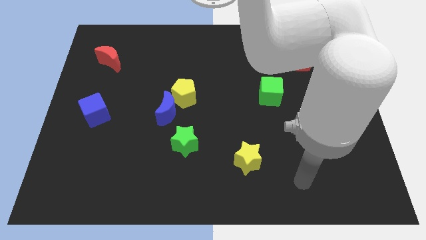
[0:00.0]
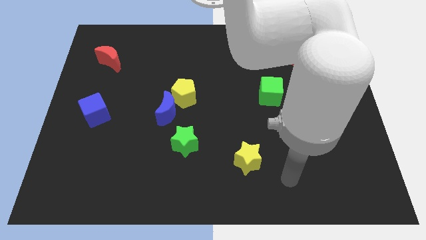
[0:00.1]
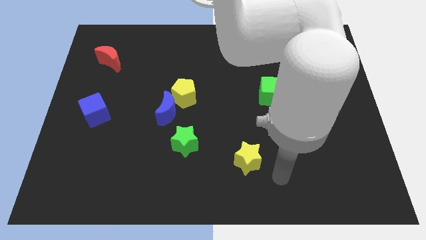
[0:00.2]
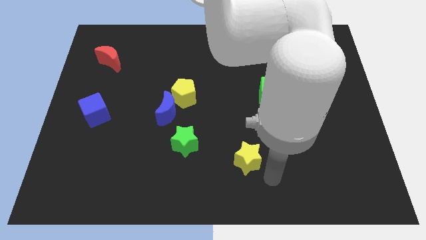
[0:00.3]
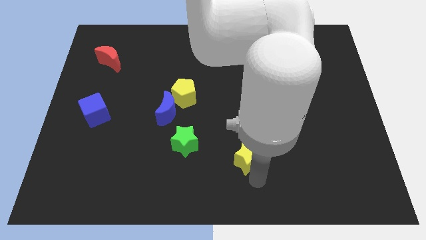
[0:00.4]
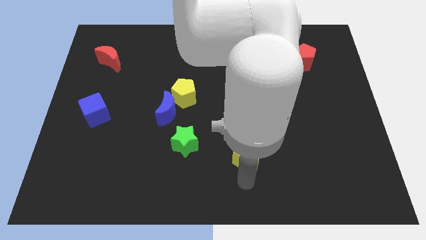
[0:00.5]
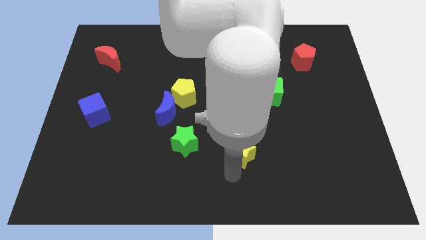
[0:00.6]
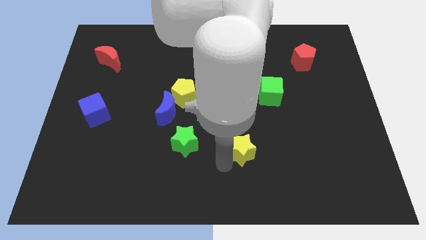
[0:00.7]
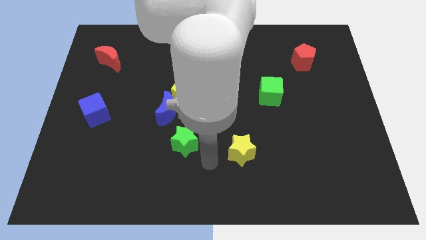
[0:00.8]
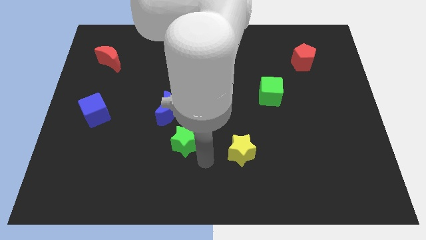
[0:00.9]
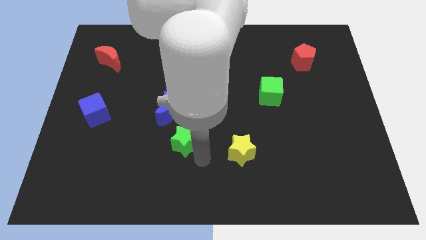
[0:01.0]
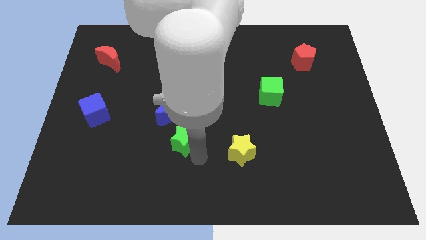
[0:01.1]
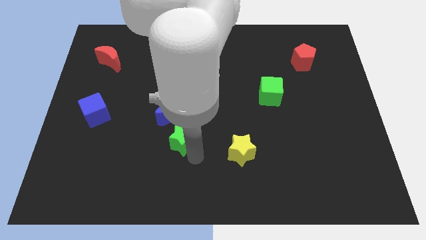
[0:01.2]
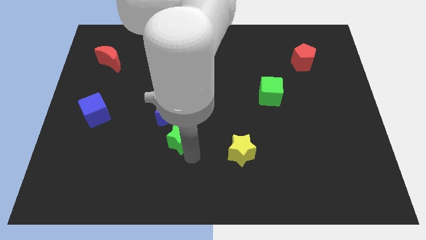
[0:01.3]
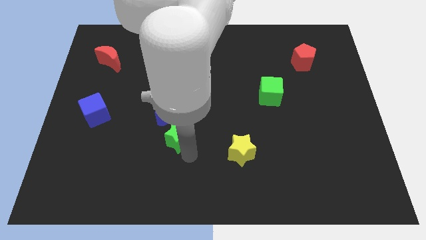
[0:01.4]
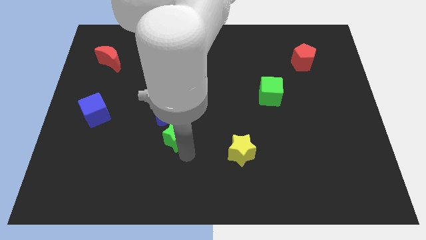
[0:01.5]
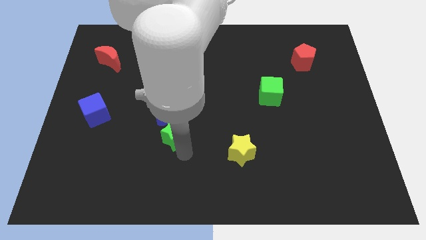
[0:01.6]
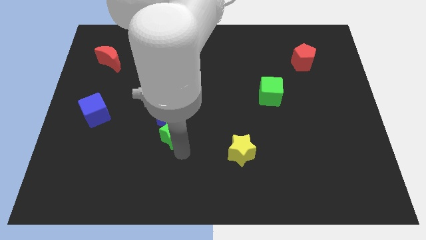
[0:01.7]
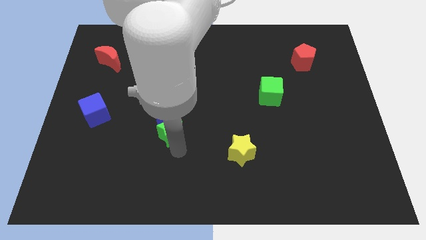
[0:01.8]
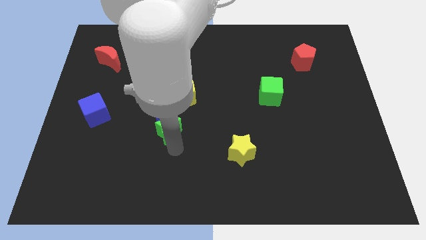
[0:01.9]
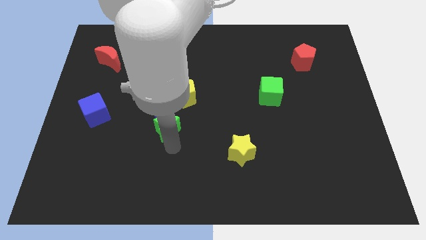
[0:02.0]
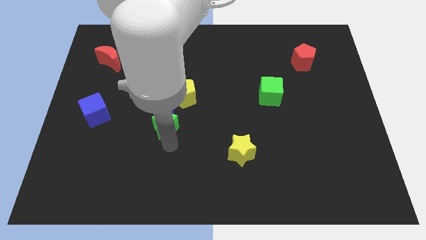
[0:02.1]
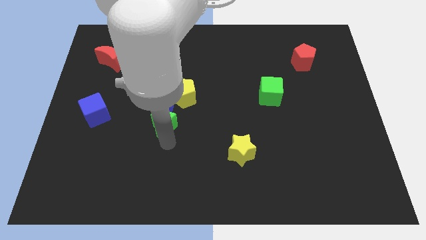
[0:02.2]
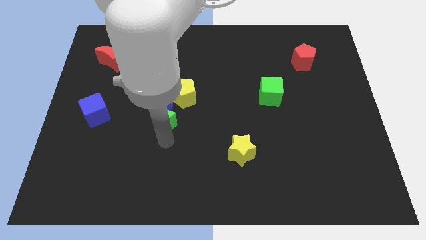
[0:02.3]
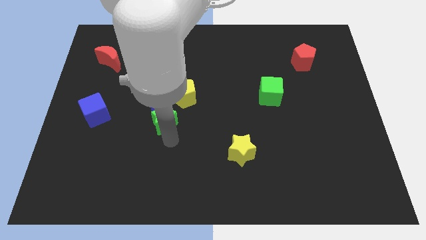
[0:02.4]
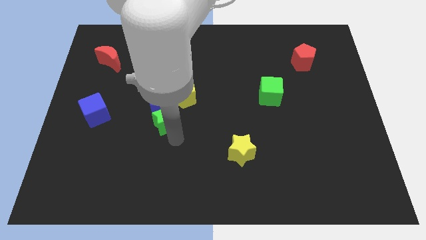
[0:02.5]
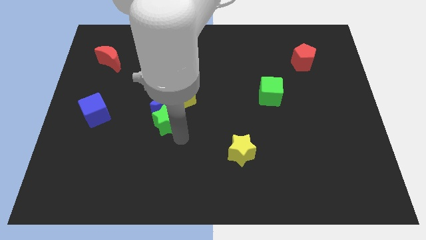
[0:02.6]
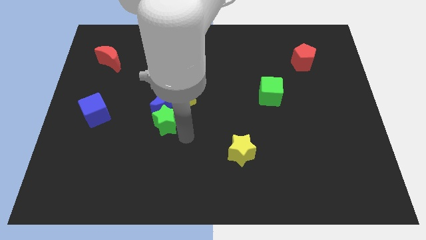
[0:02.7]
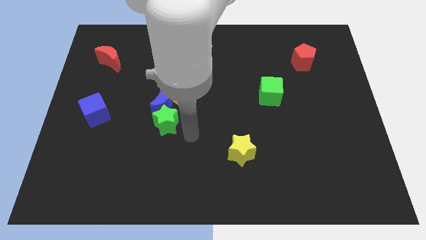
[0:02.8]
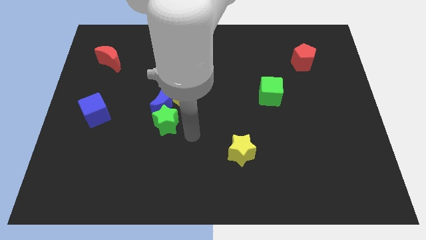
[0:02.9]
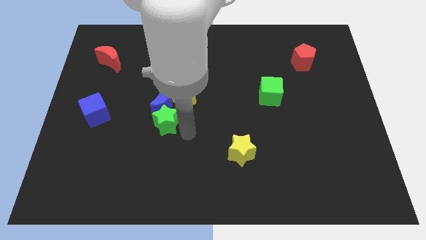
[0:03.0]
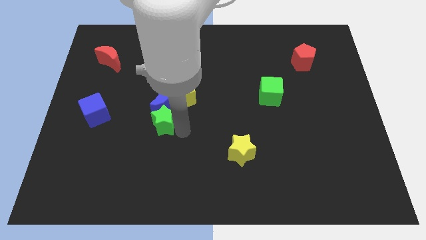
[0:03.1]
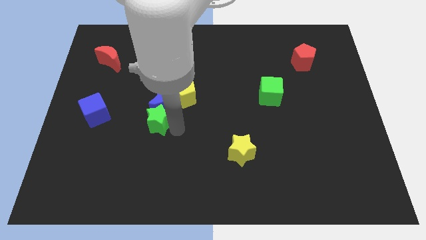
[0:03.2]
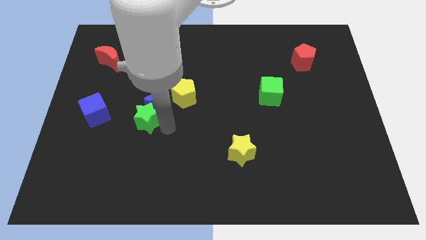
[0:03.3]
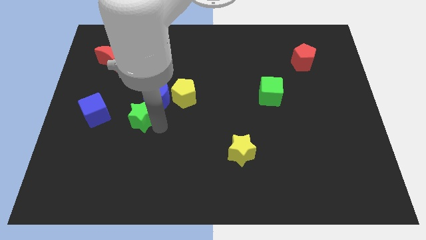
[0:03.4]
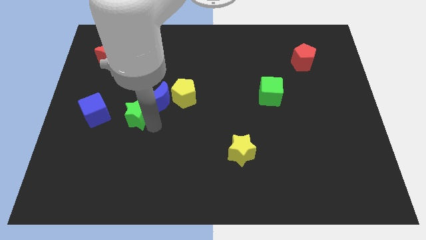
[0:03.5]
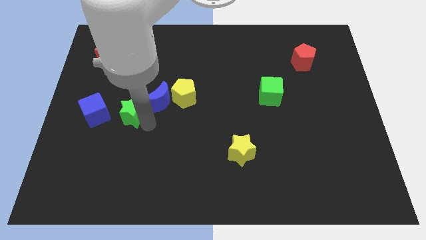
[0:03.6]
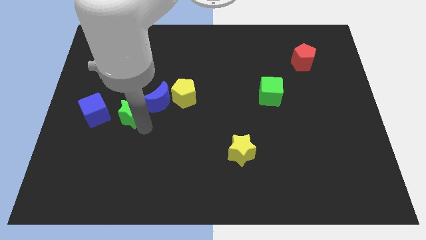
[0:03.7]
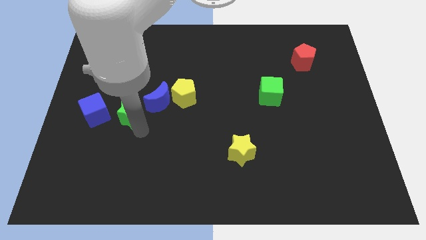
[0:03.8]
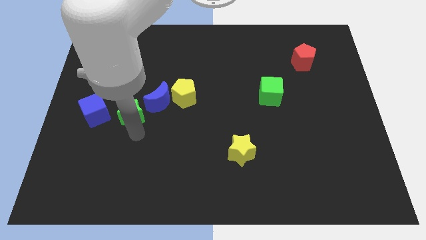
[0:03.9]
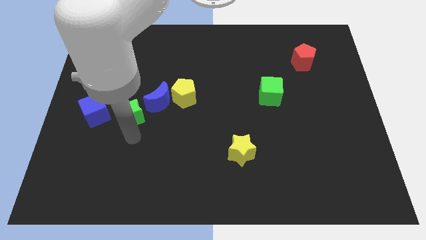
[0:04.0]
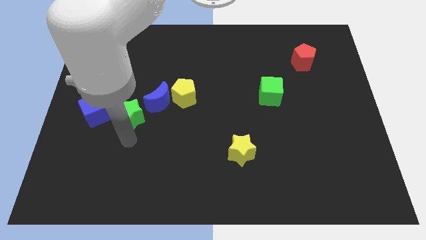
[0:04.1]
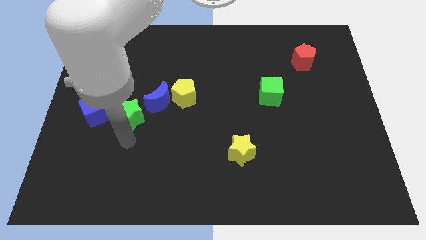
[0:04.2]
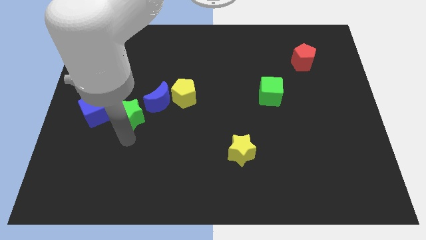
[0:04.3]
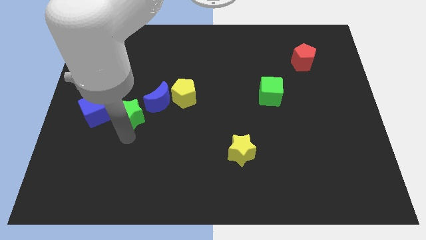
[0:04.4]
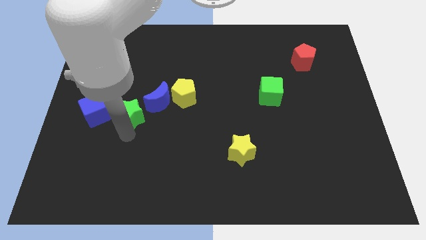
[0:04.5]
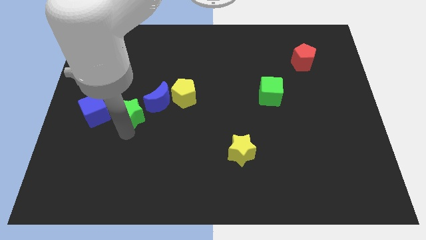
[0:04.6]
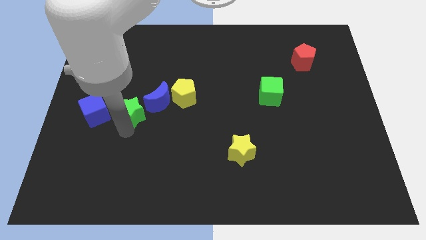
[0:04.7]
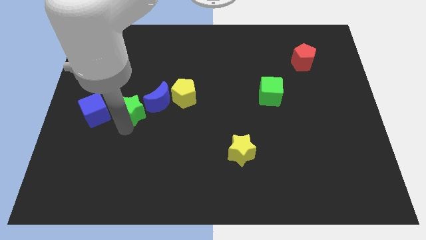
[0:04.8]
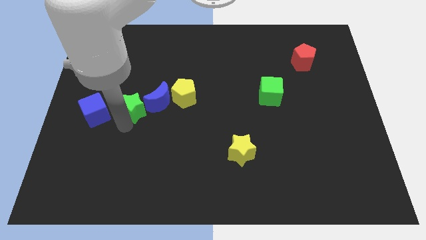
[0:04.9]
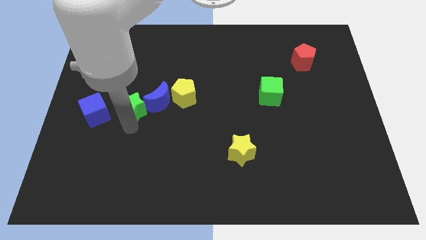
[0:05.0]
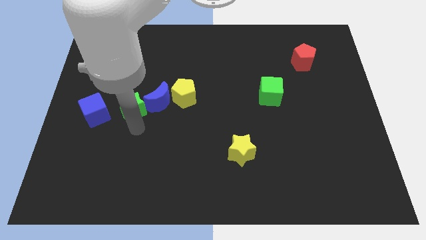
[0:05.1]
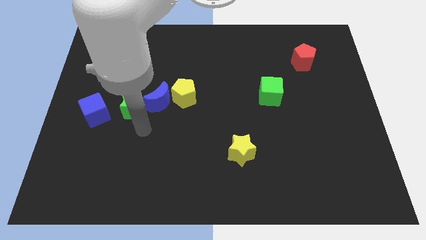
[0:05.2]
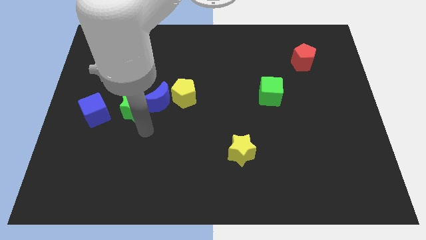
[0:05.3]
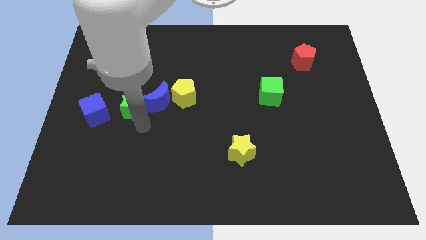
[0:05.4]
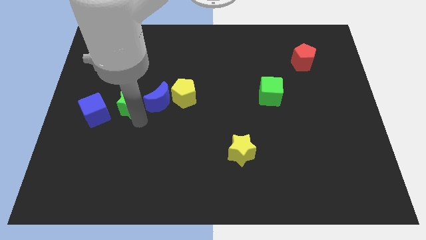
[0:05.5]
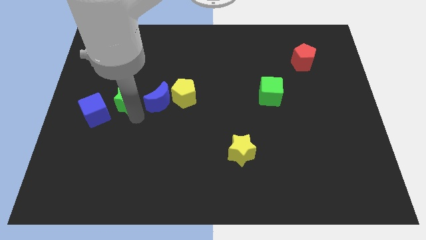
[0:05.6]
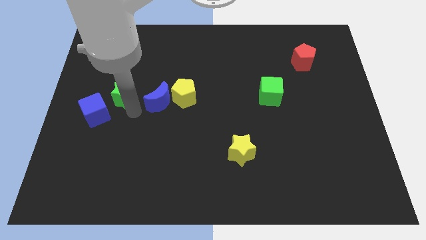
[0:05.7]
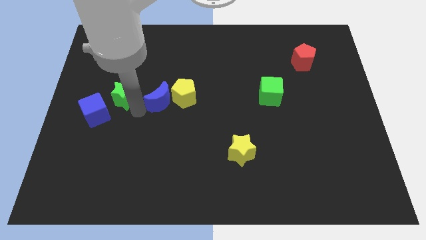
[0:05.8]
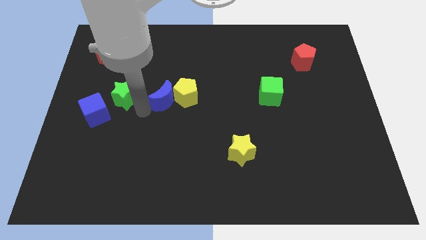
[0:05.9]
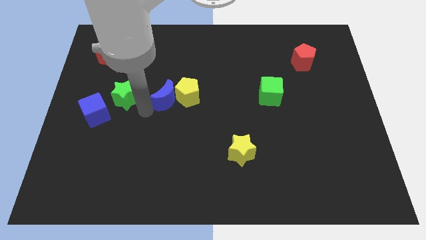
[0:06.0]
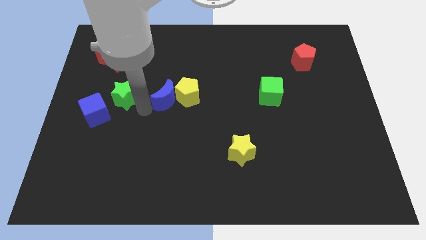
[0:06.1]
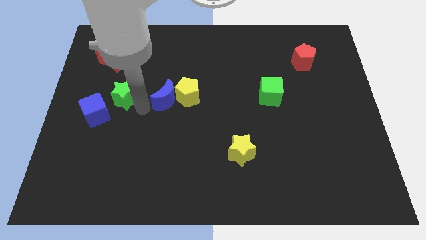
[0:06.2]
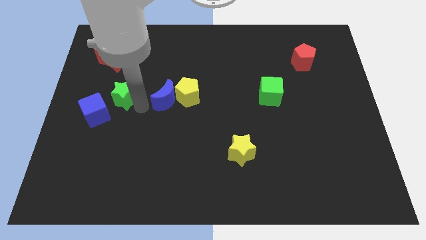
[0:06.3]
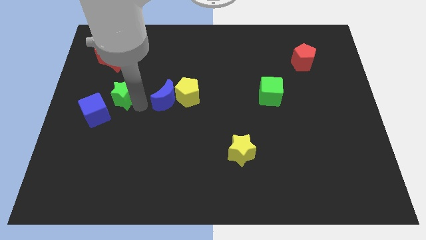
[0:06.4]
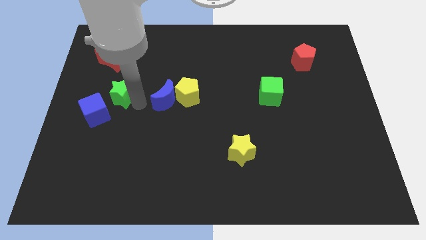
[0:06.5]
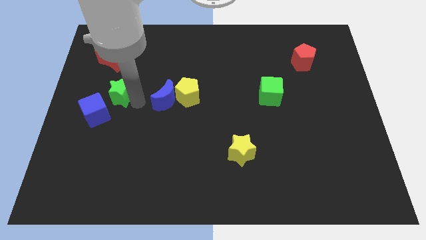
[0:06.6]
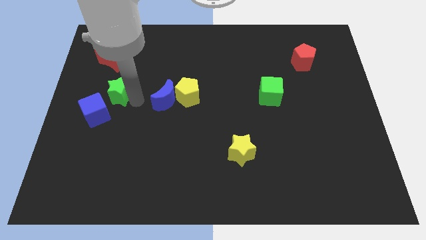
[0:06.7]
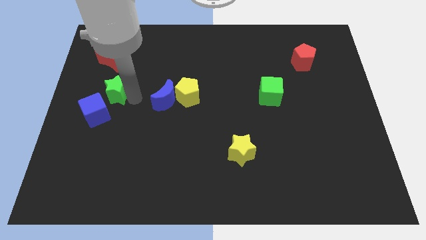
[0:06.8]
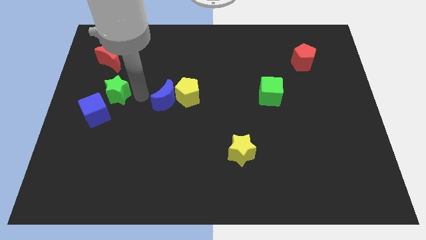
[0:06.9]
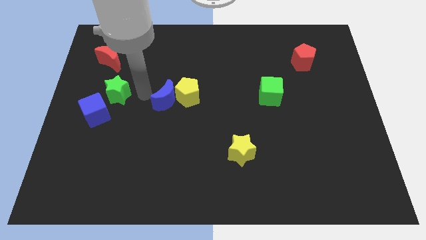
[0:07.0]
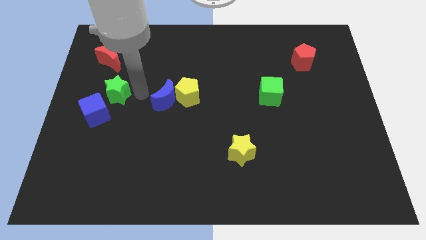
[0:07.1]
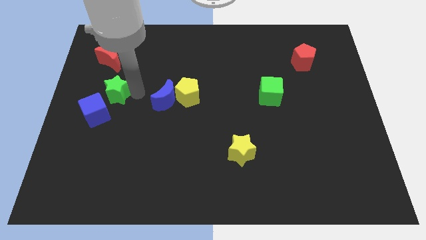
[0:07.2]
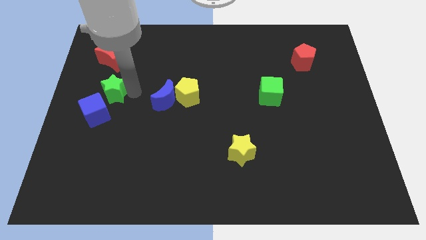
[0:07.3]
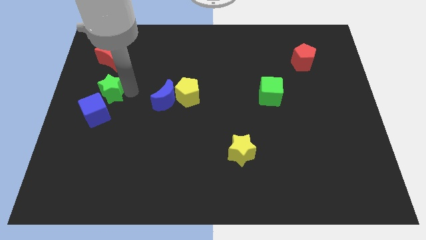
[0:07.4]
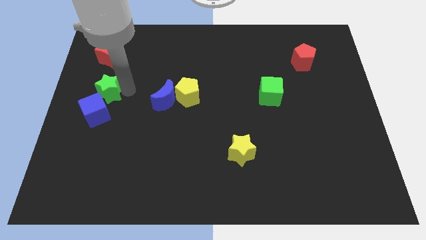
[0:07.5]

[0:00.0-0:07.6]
push the green star to the left side of the board
